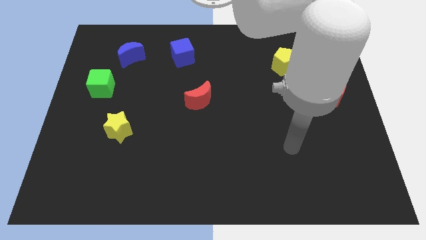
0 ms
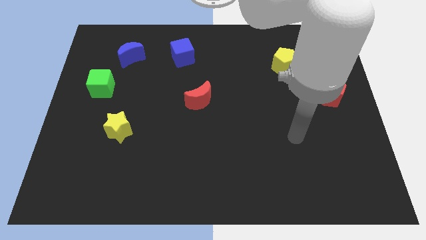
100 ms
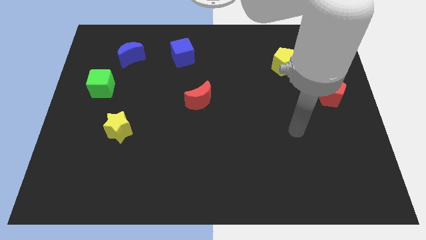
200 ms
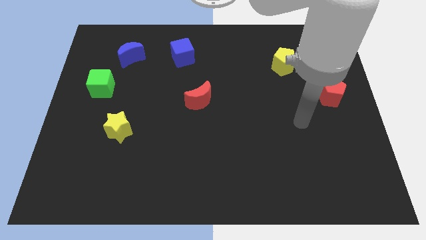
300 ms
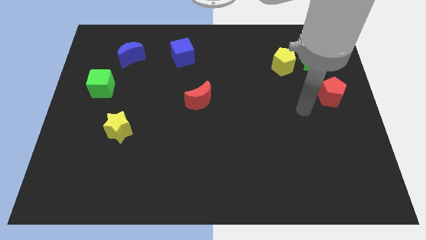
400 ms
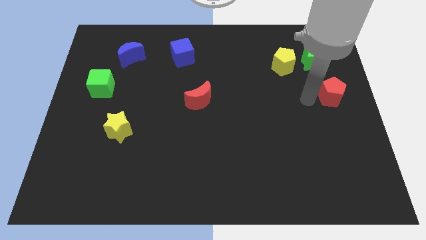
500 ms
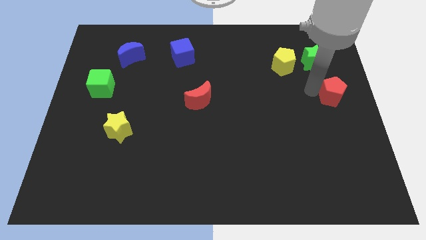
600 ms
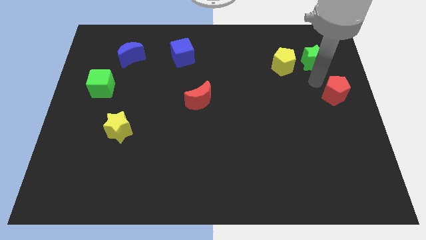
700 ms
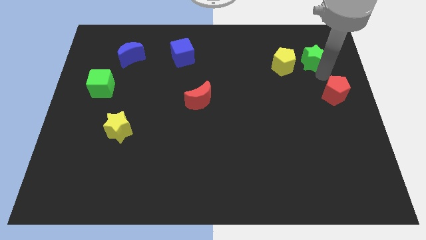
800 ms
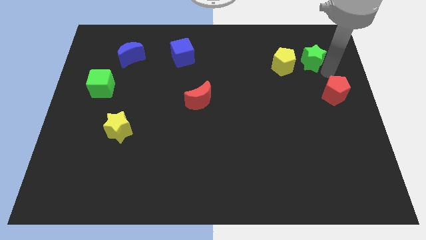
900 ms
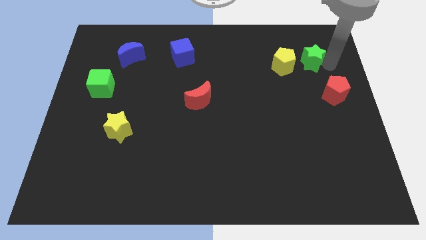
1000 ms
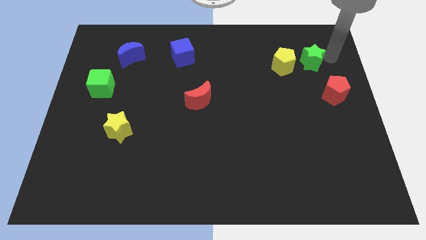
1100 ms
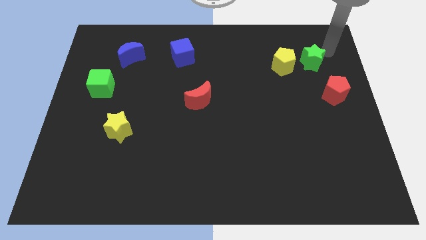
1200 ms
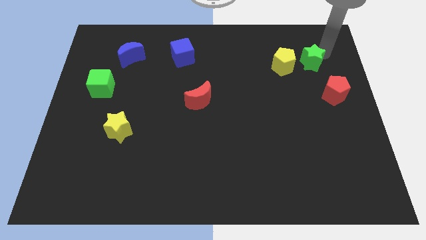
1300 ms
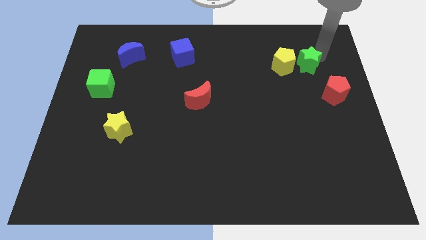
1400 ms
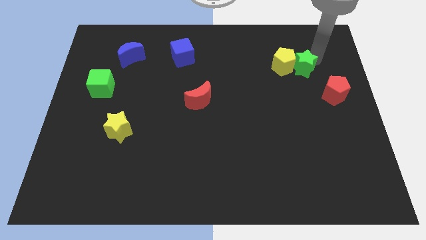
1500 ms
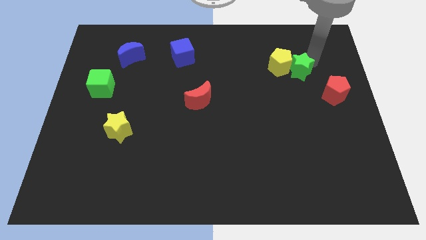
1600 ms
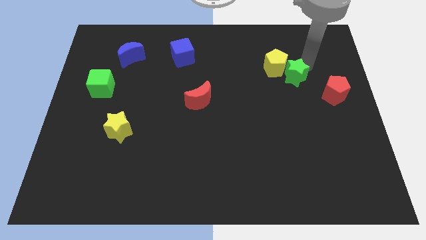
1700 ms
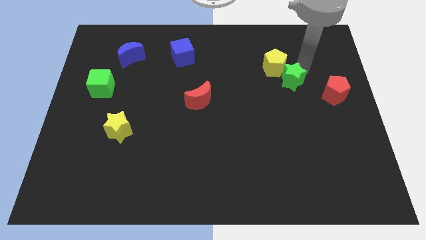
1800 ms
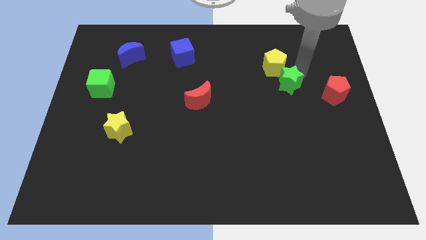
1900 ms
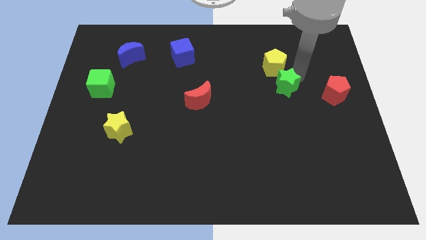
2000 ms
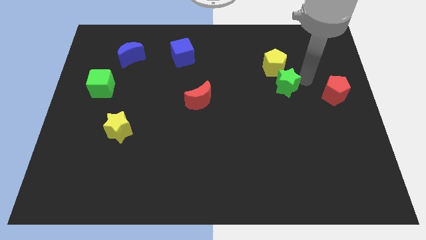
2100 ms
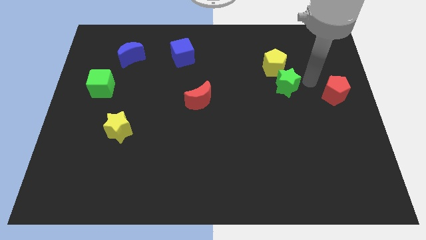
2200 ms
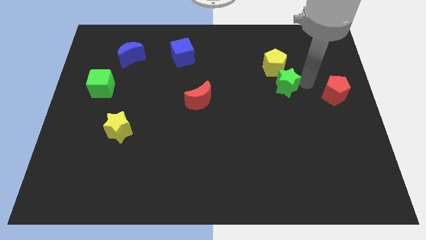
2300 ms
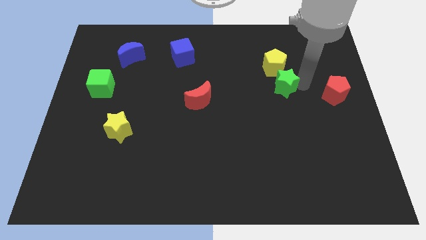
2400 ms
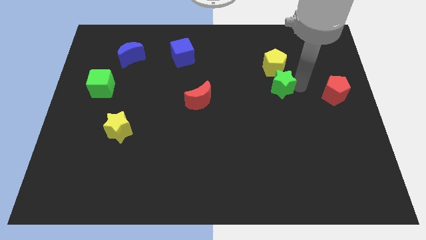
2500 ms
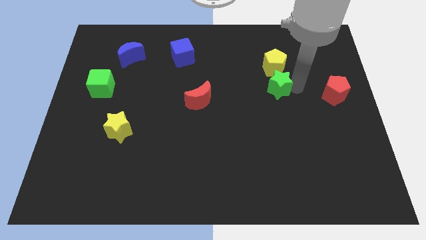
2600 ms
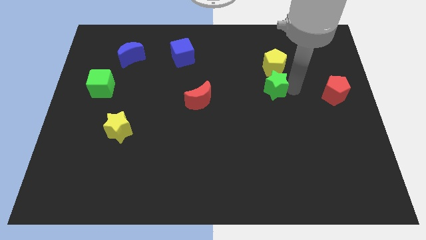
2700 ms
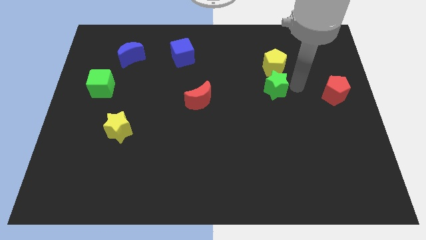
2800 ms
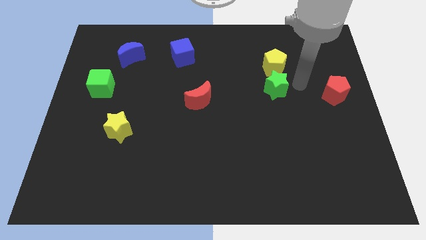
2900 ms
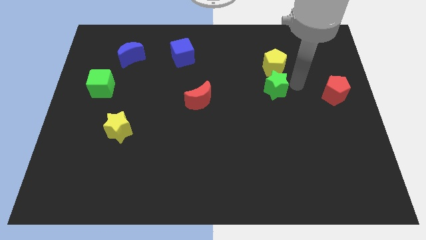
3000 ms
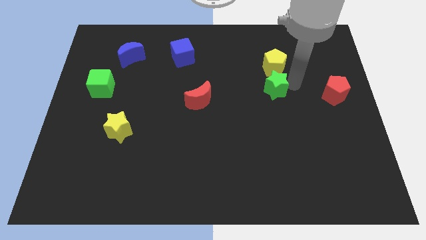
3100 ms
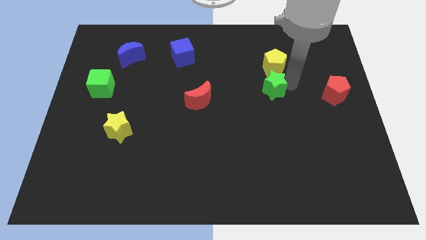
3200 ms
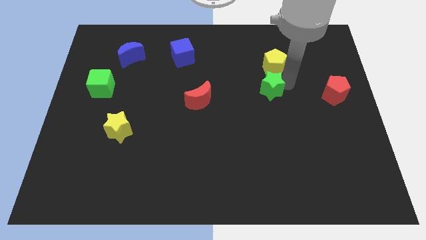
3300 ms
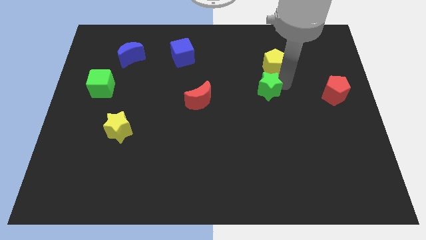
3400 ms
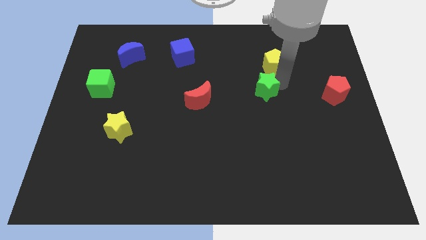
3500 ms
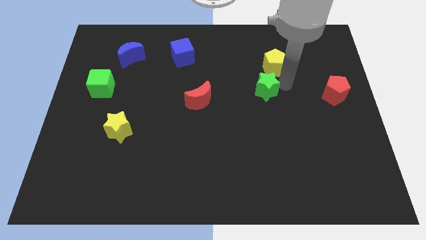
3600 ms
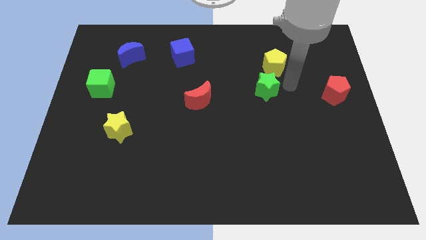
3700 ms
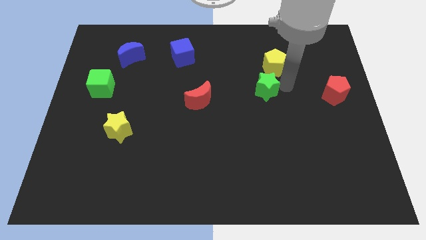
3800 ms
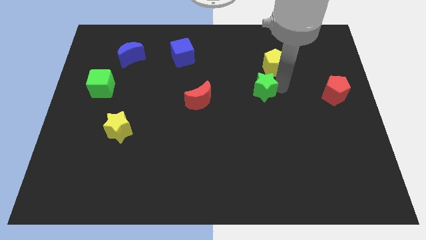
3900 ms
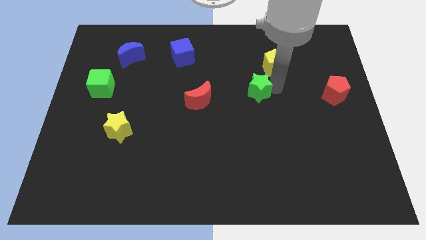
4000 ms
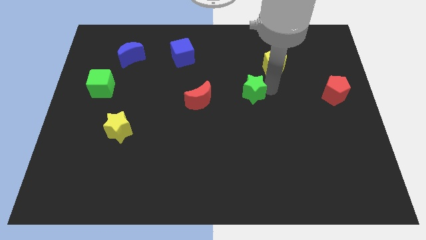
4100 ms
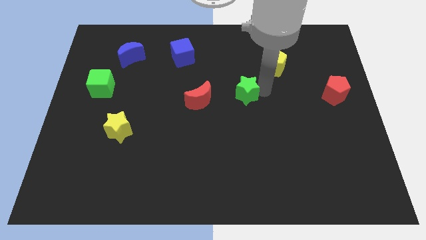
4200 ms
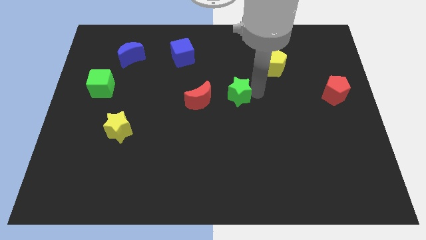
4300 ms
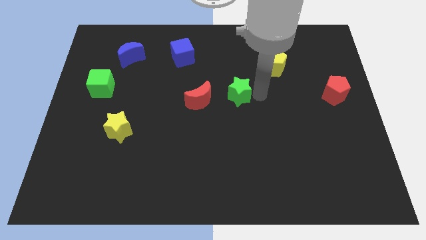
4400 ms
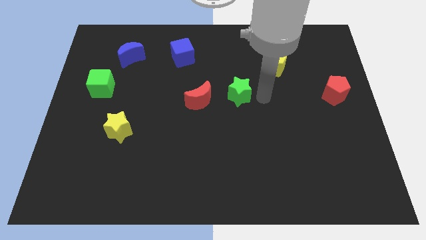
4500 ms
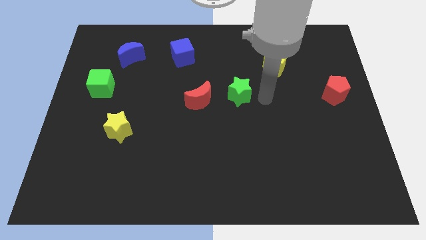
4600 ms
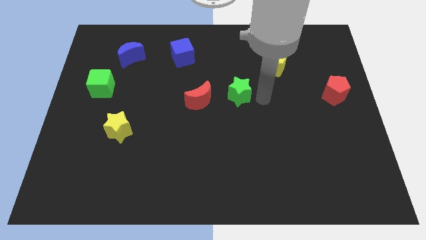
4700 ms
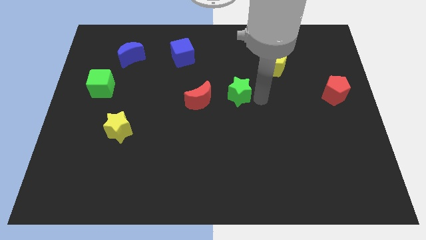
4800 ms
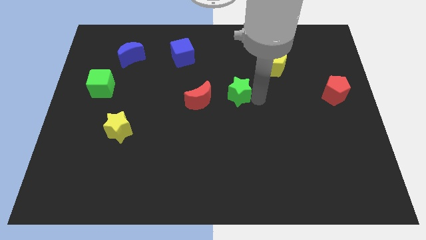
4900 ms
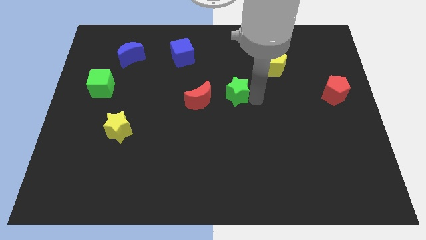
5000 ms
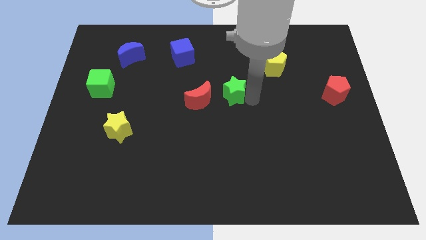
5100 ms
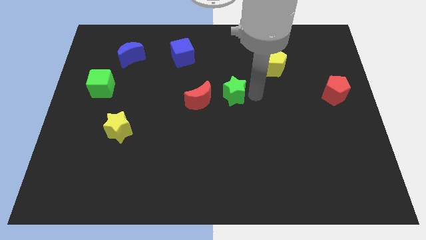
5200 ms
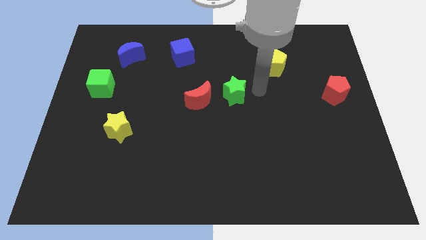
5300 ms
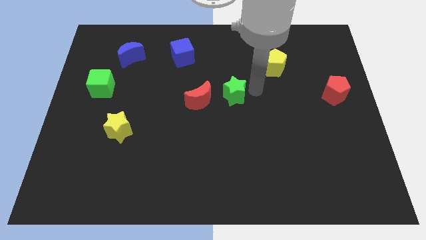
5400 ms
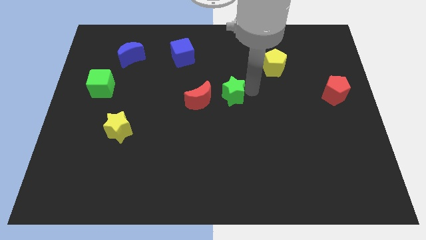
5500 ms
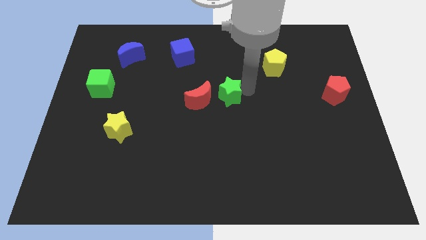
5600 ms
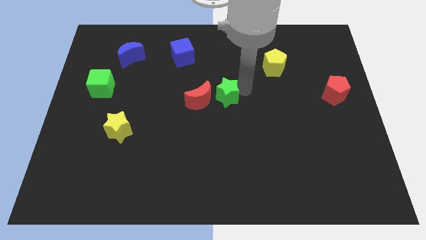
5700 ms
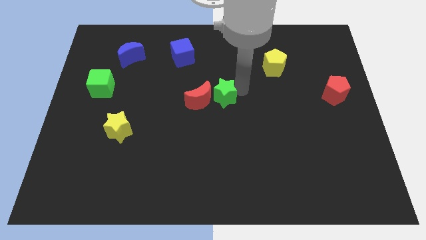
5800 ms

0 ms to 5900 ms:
slide the green star to the red moon

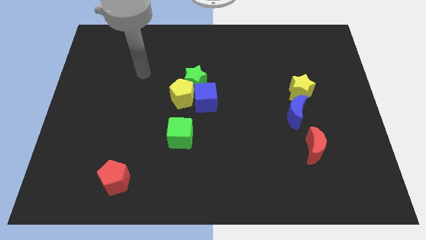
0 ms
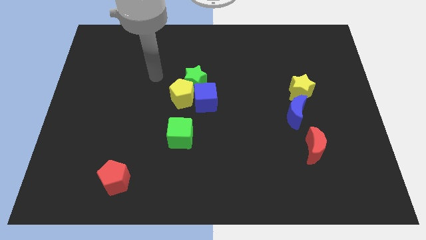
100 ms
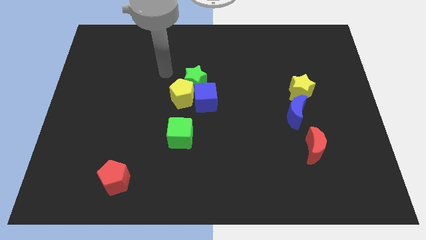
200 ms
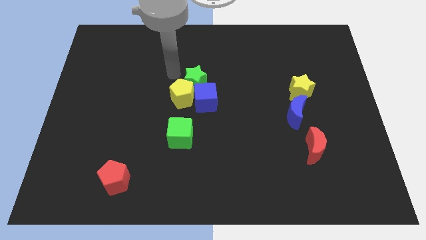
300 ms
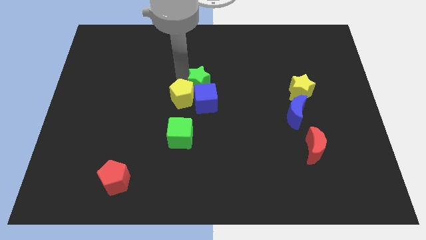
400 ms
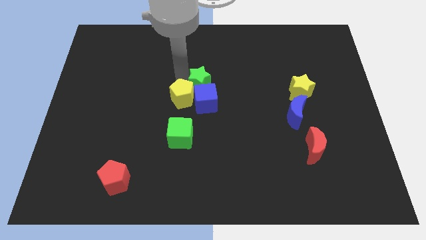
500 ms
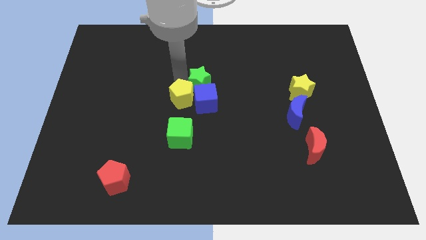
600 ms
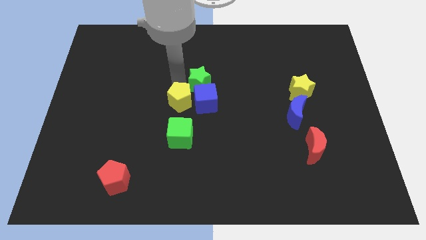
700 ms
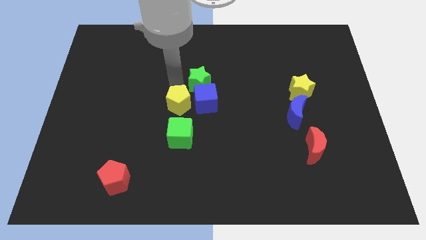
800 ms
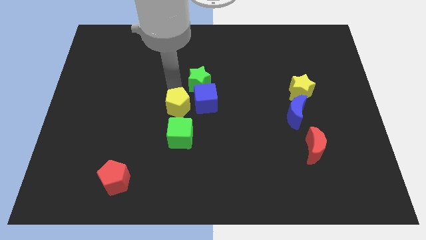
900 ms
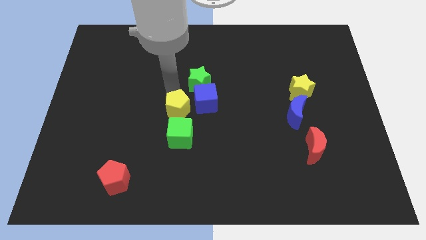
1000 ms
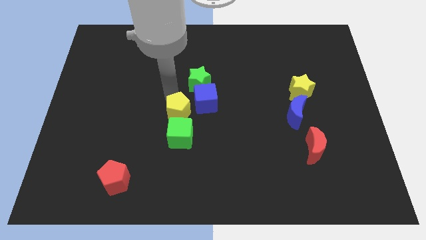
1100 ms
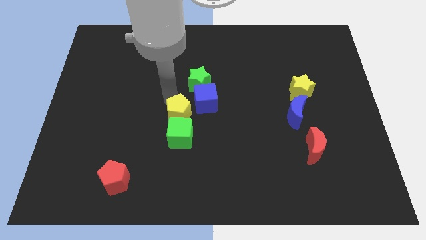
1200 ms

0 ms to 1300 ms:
push the yellow pentagon to the green cube
